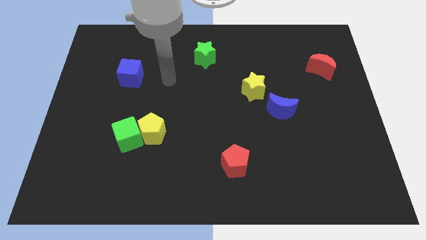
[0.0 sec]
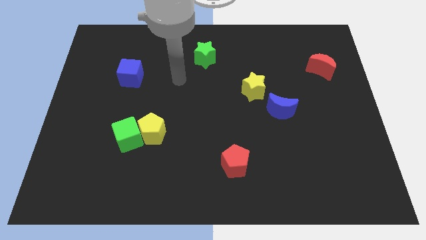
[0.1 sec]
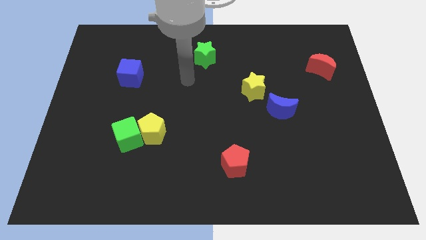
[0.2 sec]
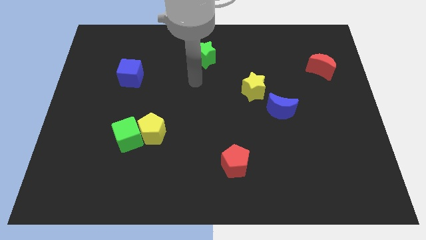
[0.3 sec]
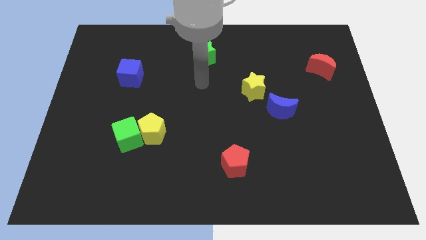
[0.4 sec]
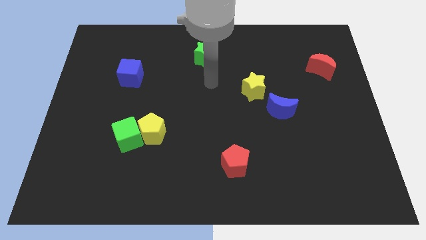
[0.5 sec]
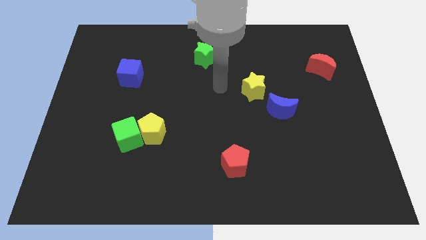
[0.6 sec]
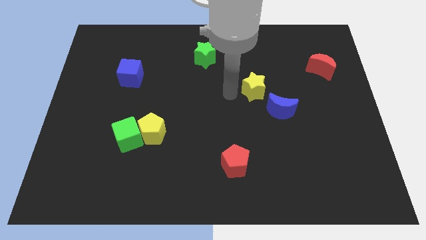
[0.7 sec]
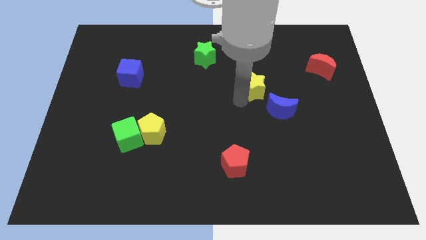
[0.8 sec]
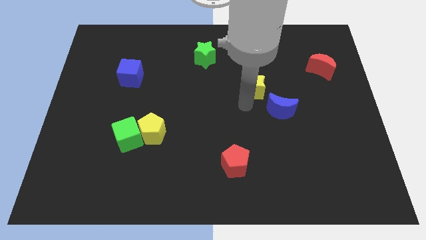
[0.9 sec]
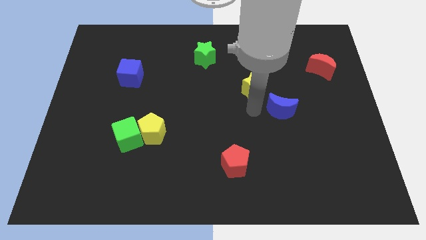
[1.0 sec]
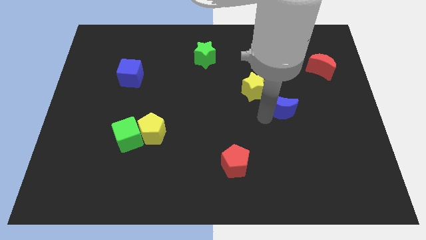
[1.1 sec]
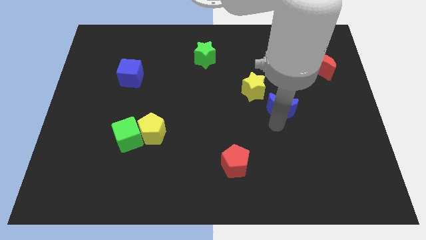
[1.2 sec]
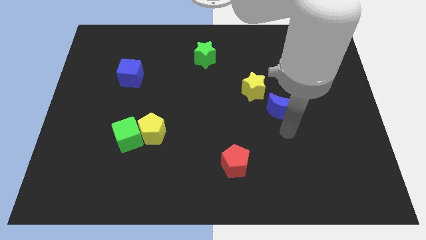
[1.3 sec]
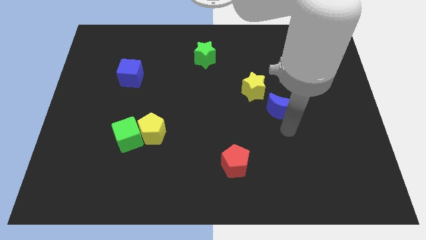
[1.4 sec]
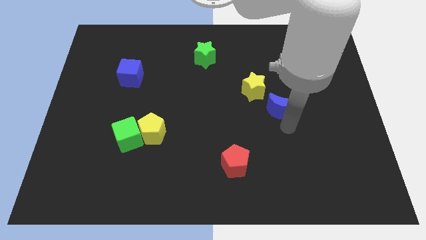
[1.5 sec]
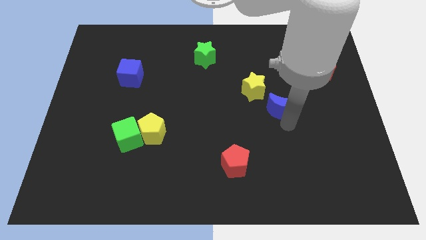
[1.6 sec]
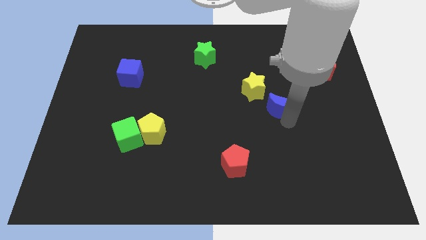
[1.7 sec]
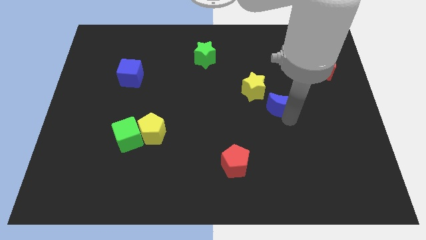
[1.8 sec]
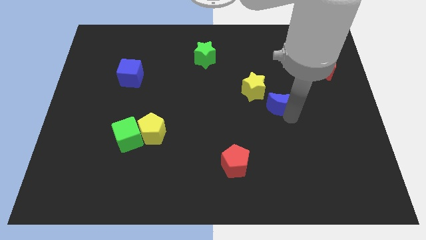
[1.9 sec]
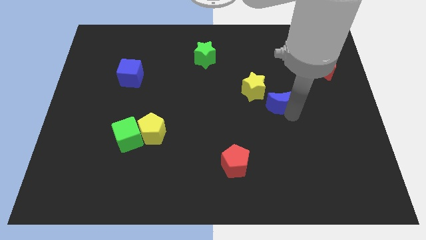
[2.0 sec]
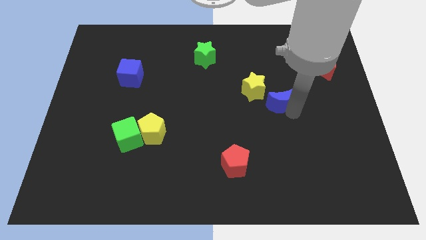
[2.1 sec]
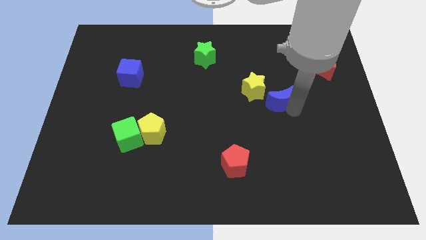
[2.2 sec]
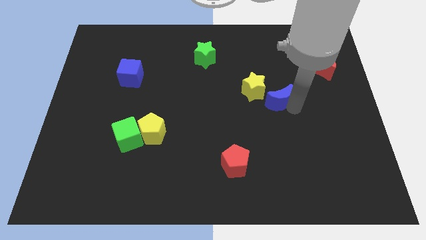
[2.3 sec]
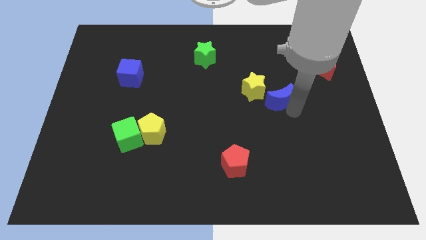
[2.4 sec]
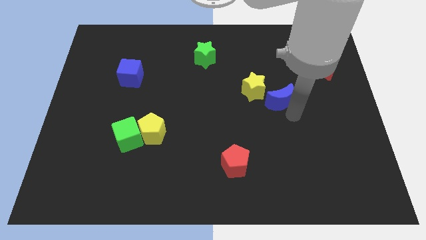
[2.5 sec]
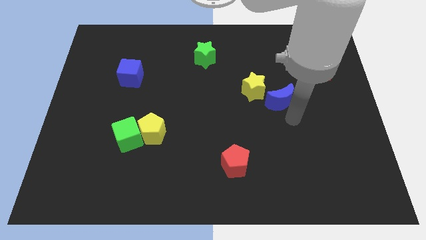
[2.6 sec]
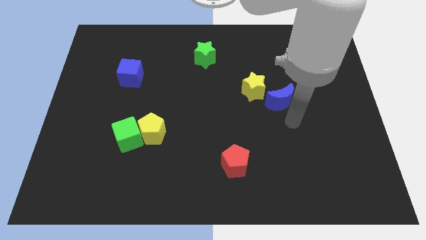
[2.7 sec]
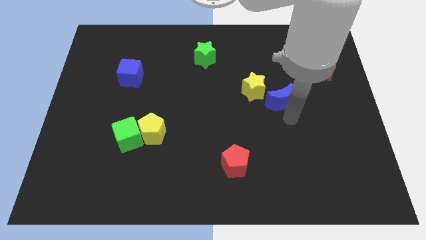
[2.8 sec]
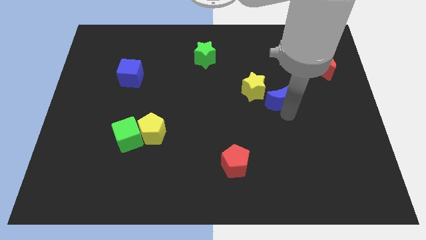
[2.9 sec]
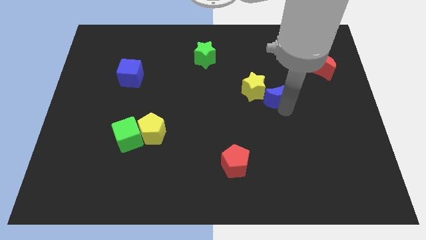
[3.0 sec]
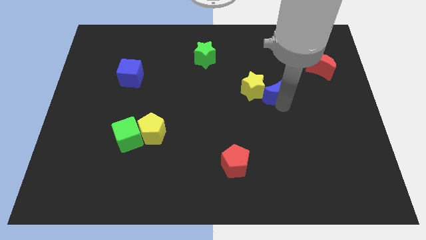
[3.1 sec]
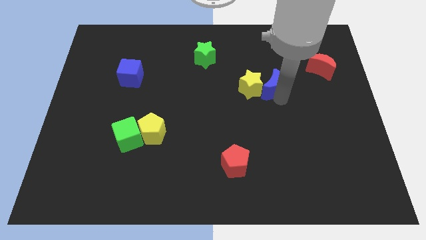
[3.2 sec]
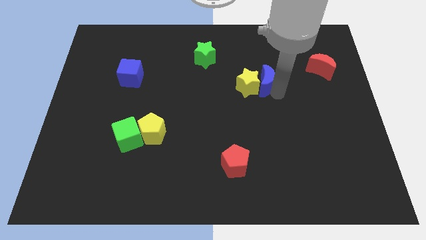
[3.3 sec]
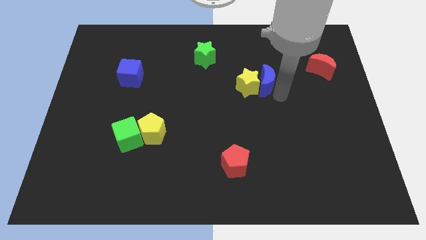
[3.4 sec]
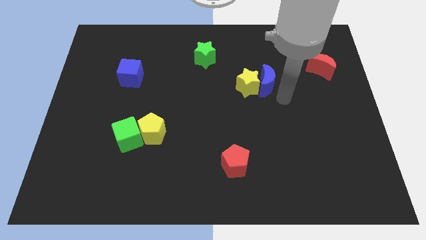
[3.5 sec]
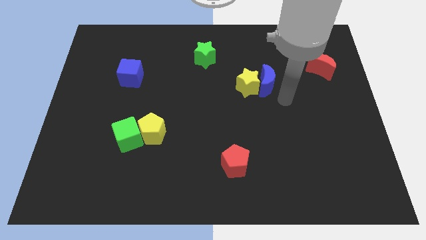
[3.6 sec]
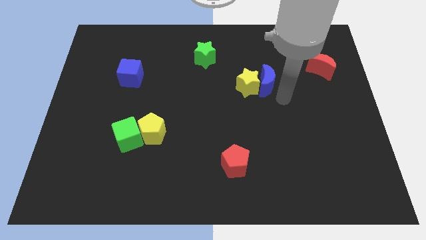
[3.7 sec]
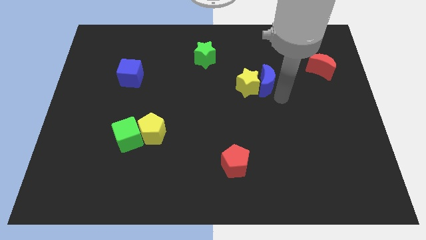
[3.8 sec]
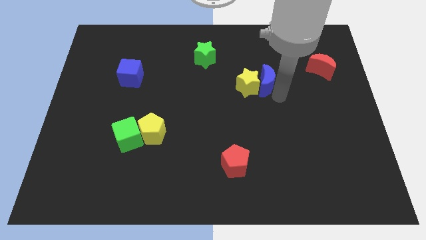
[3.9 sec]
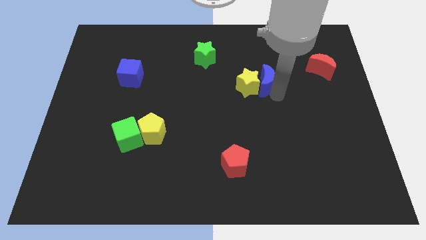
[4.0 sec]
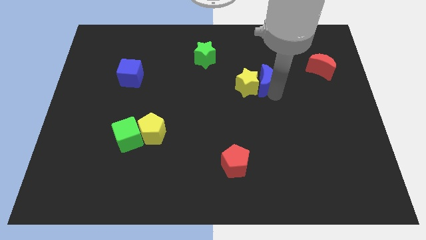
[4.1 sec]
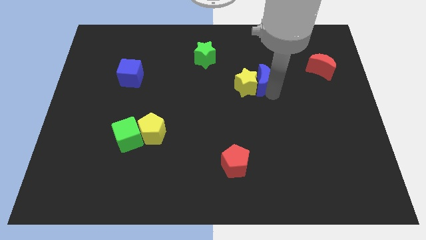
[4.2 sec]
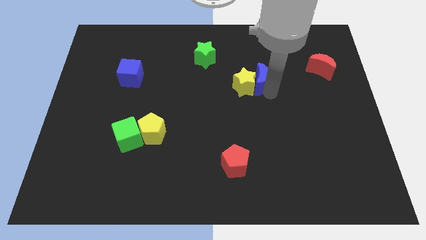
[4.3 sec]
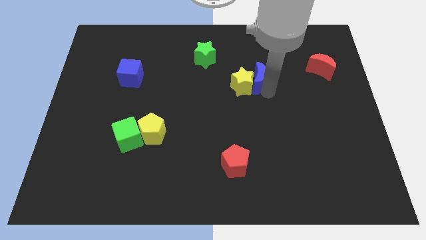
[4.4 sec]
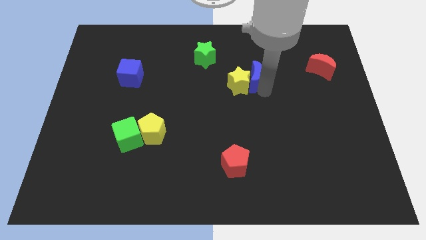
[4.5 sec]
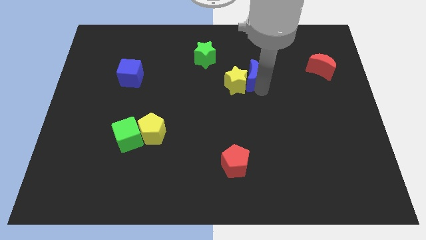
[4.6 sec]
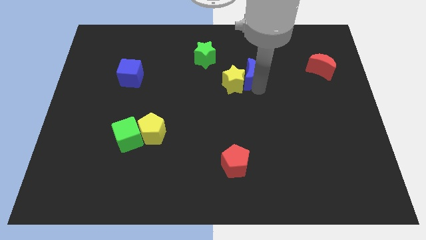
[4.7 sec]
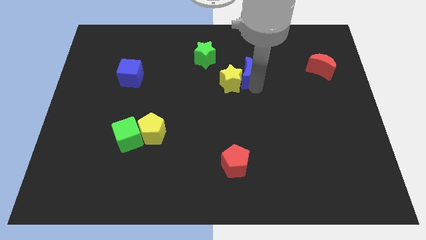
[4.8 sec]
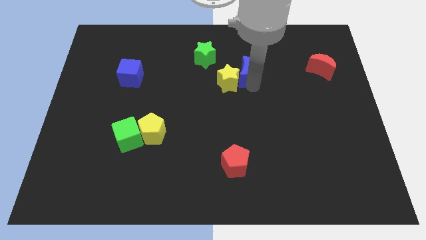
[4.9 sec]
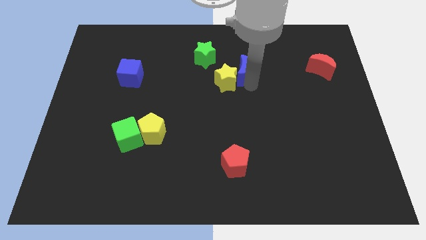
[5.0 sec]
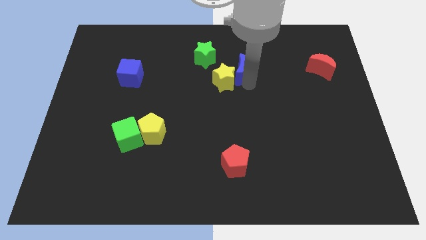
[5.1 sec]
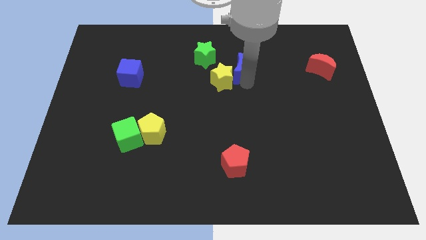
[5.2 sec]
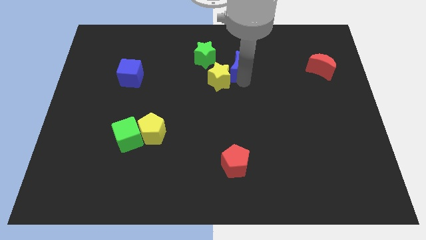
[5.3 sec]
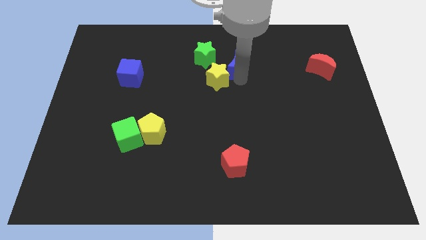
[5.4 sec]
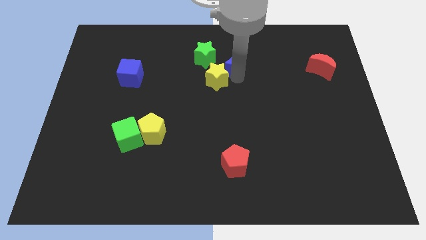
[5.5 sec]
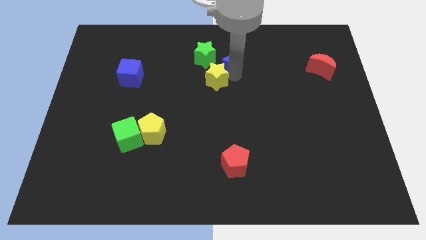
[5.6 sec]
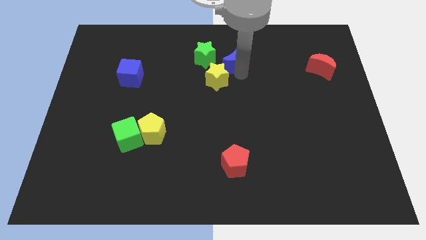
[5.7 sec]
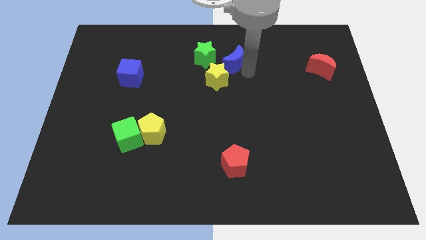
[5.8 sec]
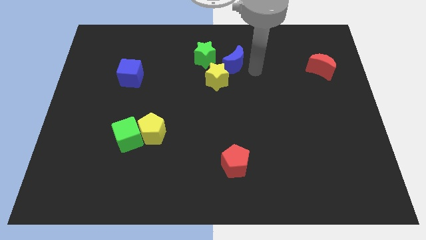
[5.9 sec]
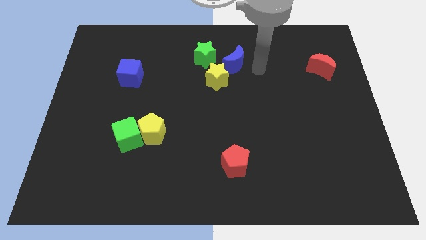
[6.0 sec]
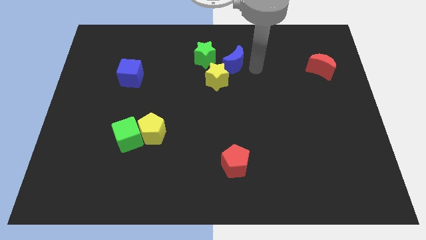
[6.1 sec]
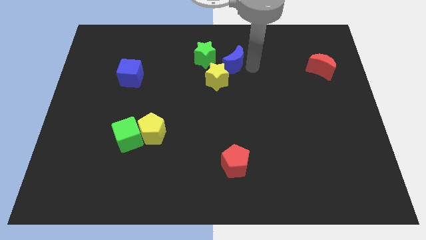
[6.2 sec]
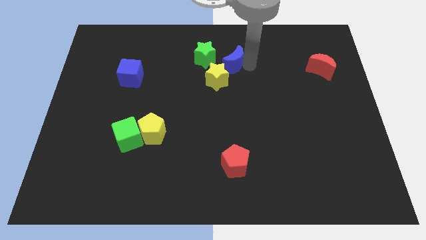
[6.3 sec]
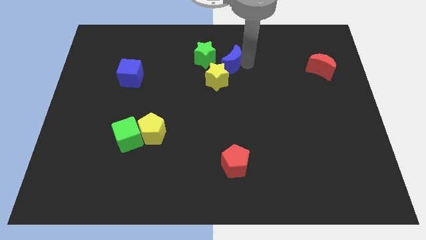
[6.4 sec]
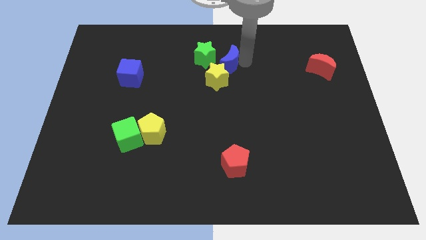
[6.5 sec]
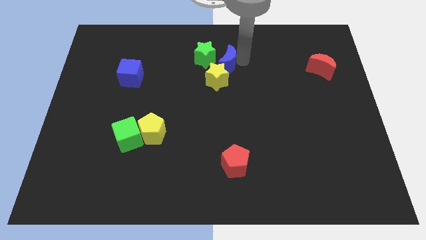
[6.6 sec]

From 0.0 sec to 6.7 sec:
slide the blue moon next to the green star
